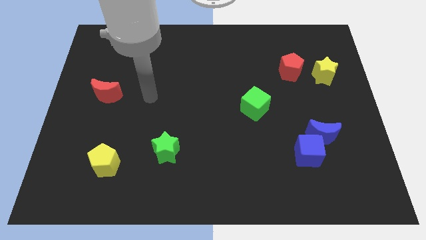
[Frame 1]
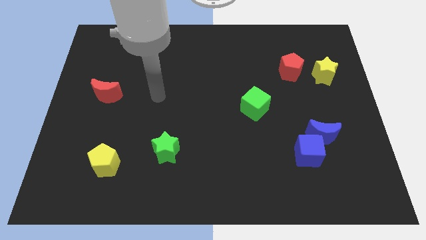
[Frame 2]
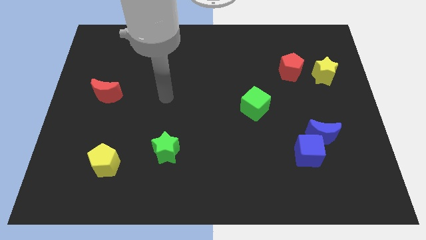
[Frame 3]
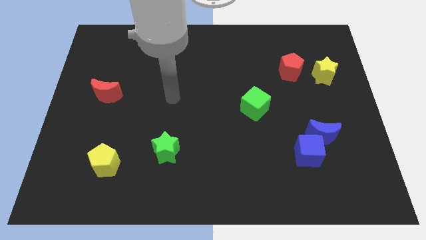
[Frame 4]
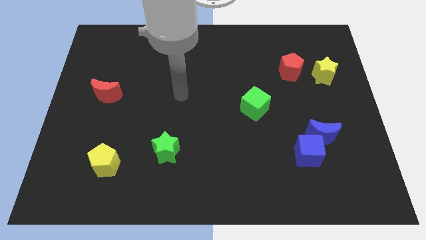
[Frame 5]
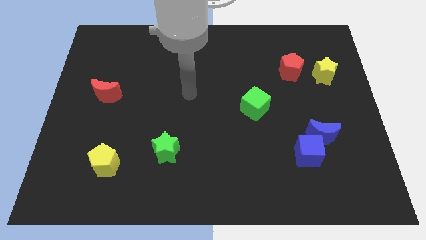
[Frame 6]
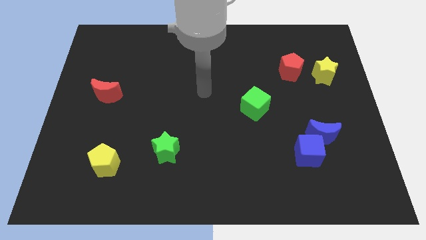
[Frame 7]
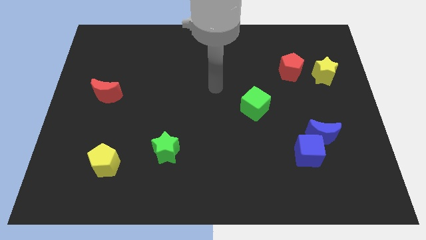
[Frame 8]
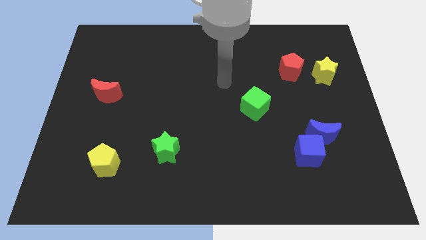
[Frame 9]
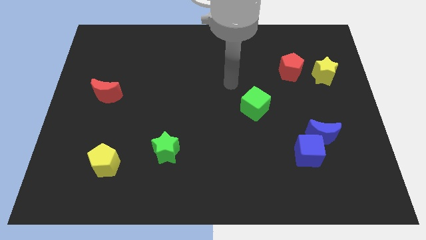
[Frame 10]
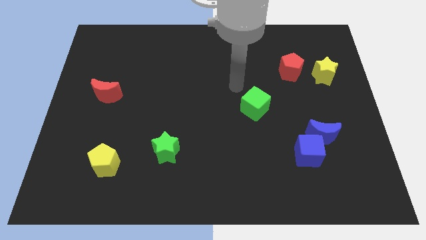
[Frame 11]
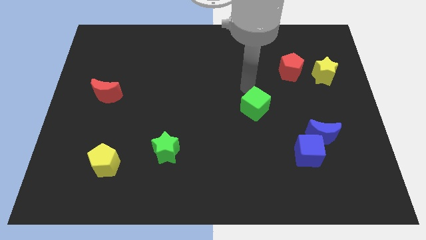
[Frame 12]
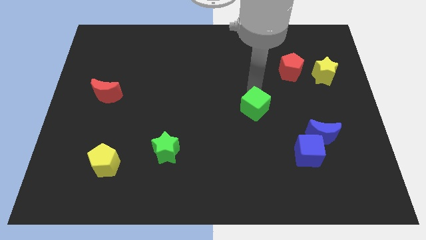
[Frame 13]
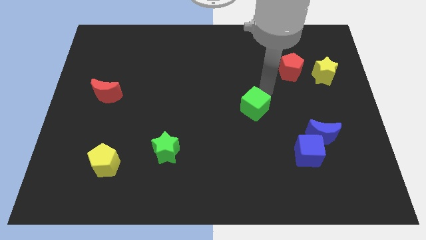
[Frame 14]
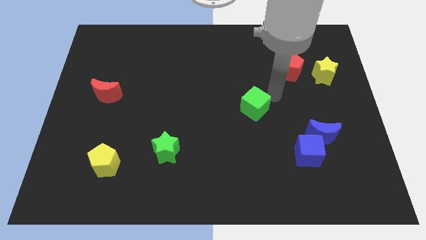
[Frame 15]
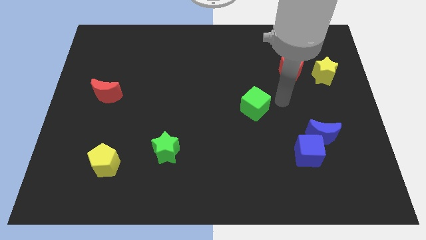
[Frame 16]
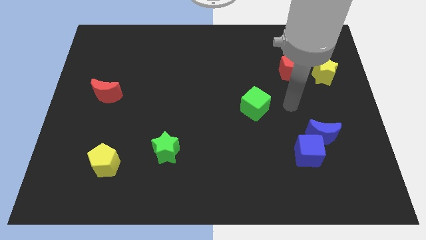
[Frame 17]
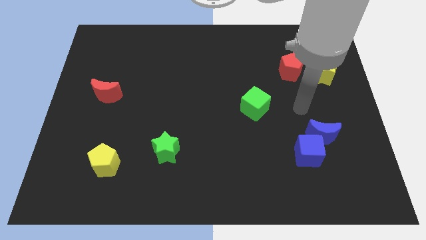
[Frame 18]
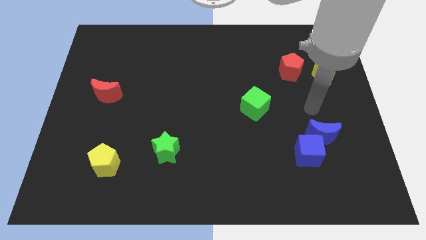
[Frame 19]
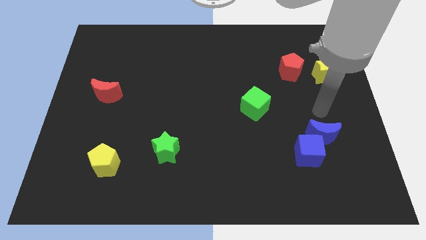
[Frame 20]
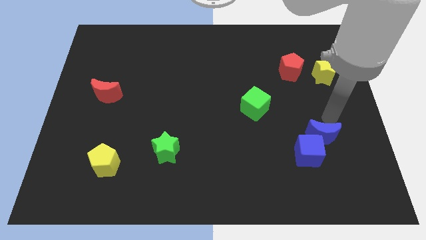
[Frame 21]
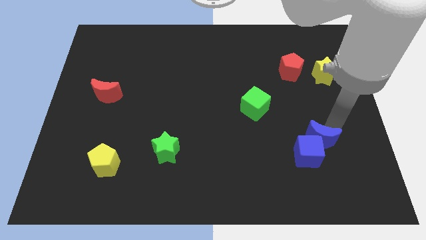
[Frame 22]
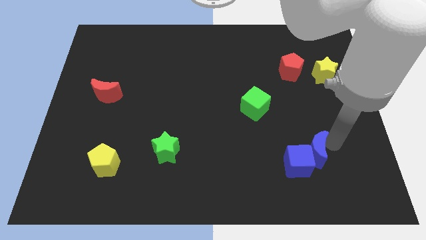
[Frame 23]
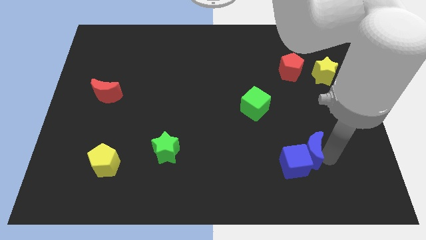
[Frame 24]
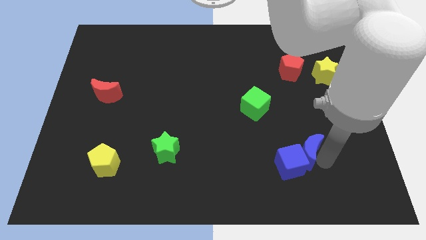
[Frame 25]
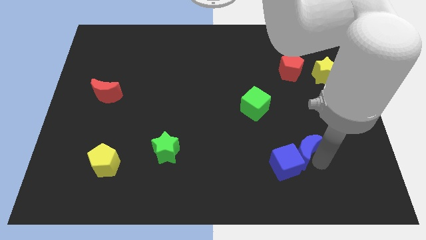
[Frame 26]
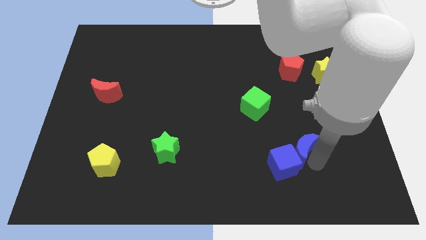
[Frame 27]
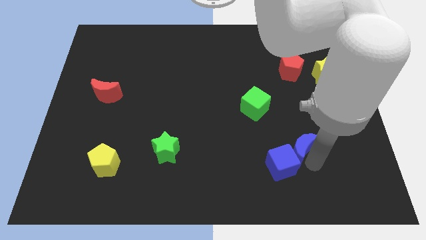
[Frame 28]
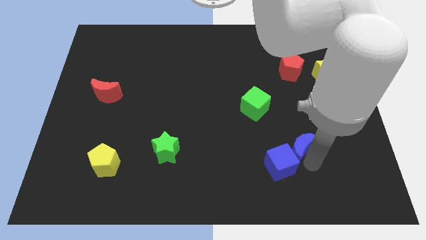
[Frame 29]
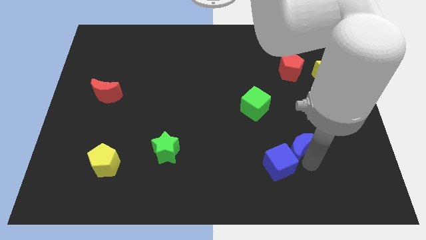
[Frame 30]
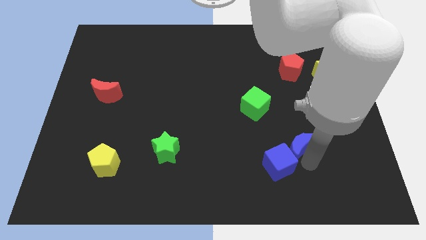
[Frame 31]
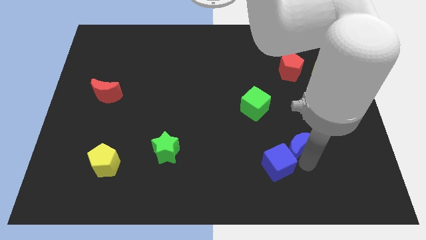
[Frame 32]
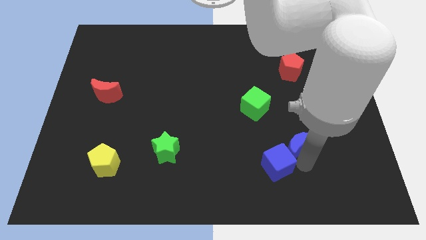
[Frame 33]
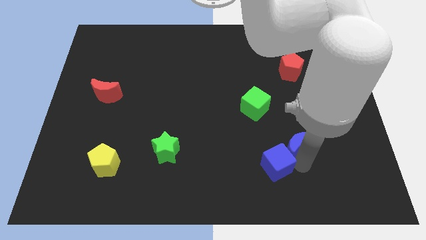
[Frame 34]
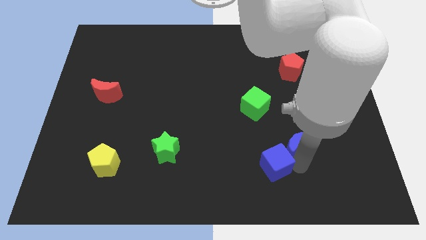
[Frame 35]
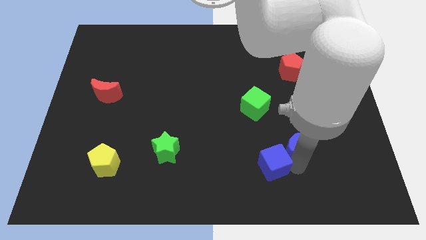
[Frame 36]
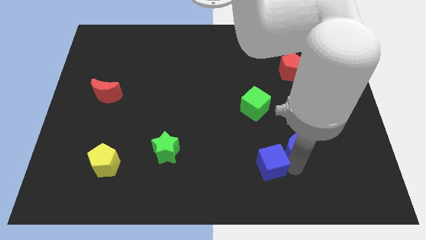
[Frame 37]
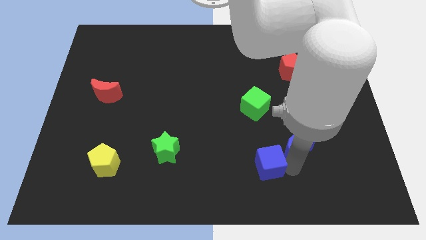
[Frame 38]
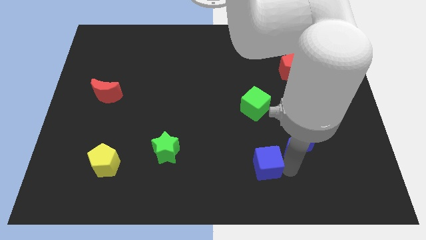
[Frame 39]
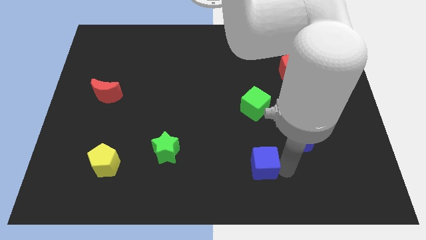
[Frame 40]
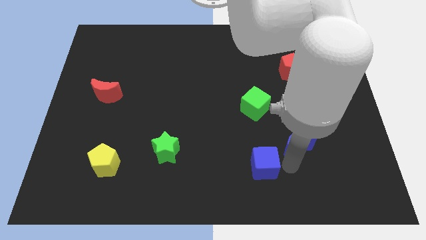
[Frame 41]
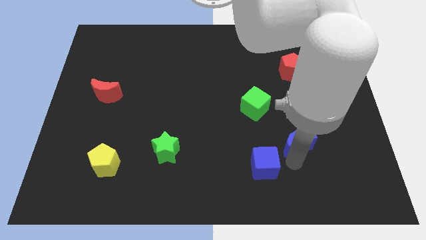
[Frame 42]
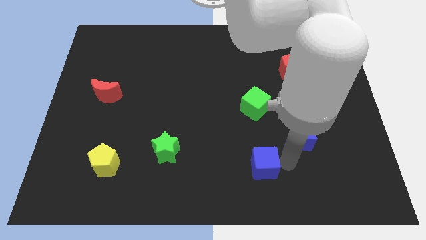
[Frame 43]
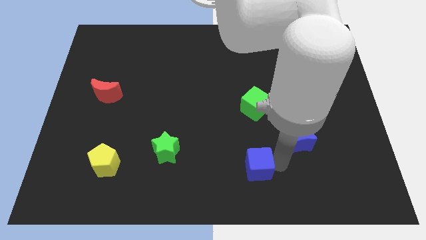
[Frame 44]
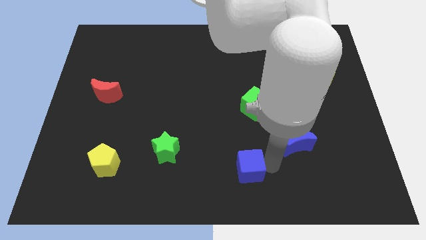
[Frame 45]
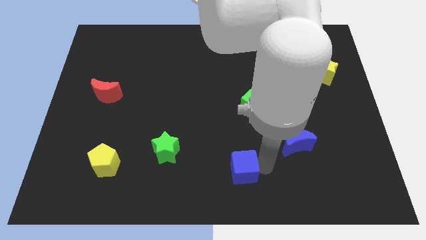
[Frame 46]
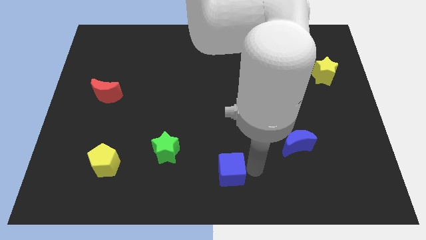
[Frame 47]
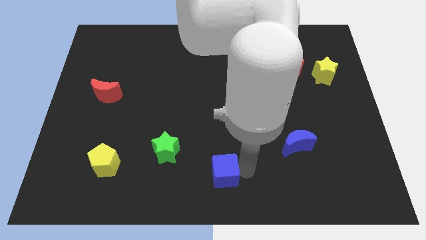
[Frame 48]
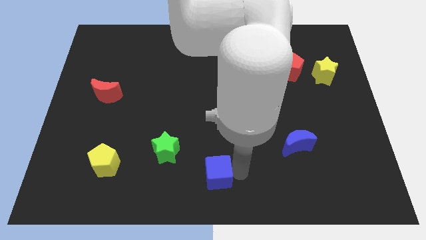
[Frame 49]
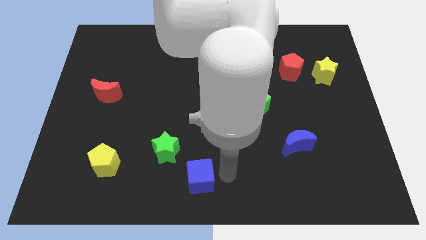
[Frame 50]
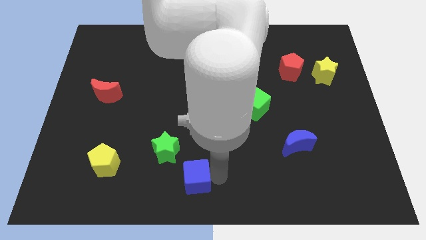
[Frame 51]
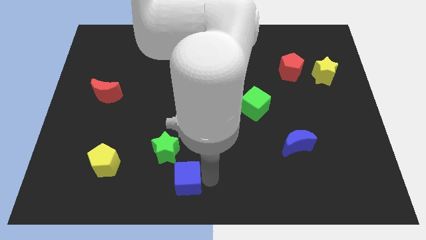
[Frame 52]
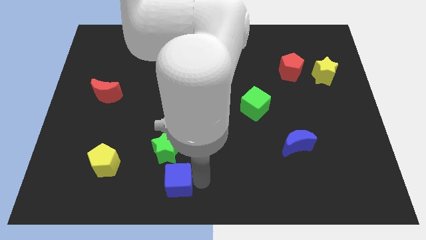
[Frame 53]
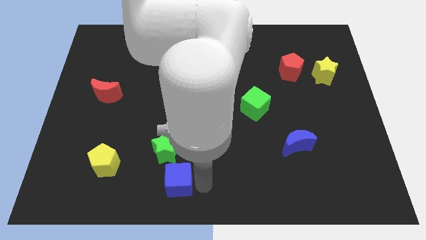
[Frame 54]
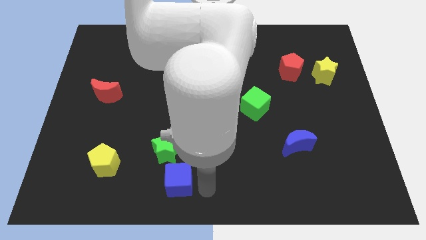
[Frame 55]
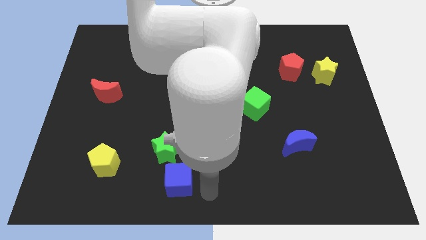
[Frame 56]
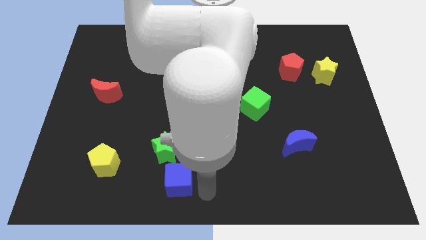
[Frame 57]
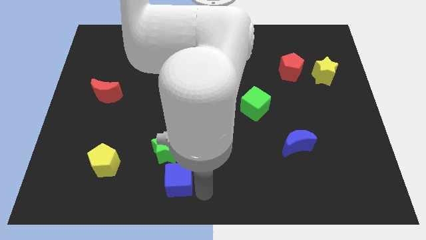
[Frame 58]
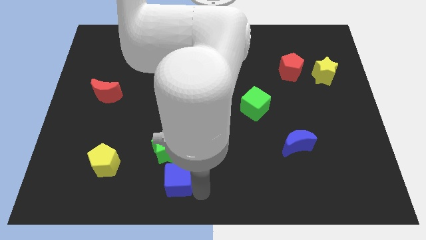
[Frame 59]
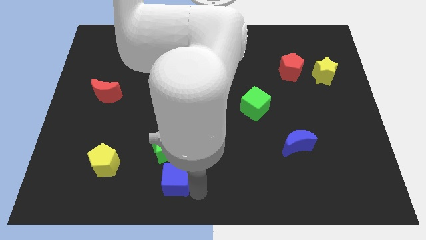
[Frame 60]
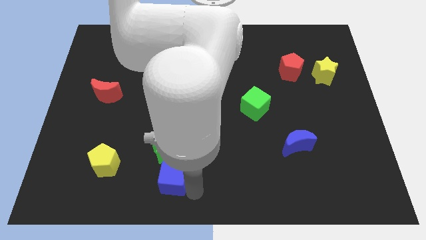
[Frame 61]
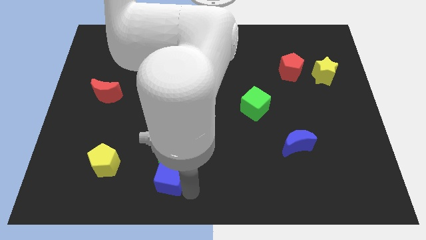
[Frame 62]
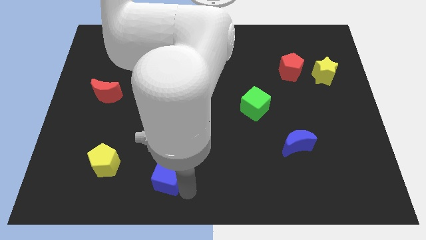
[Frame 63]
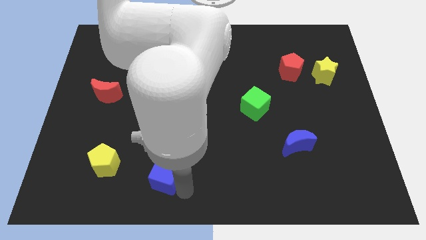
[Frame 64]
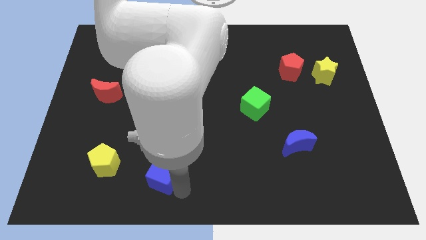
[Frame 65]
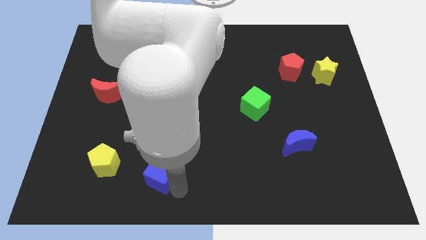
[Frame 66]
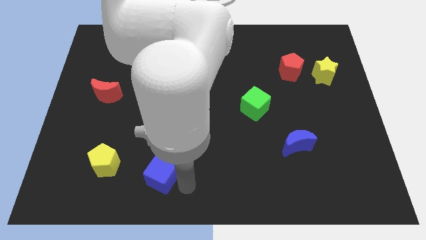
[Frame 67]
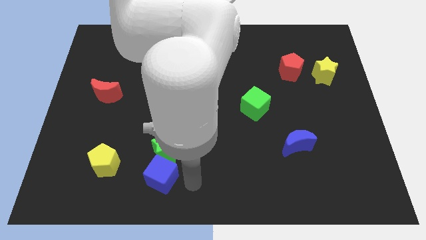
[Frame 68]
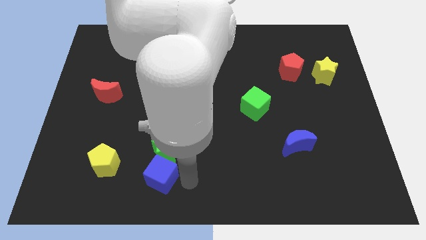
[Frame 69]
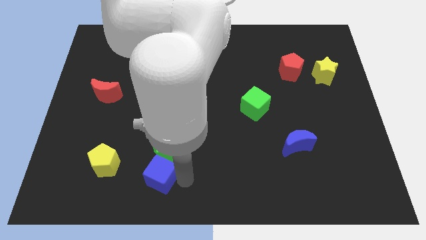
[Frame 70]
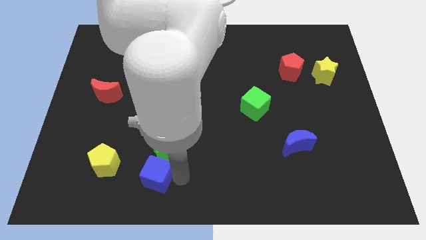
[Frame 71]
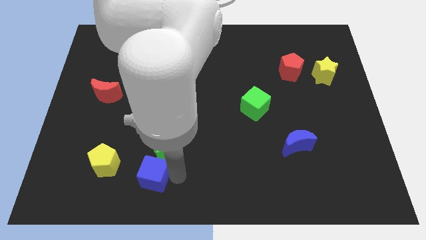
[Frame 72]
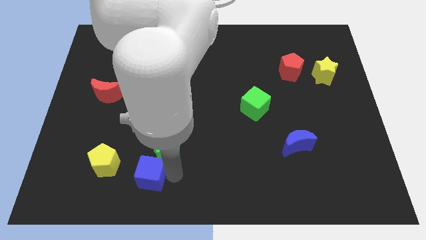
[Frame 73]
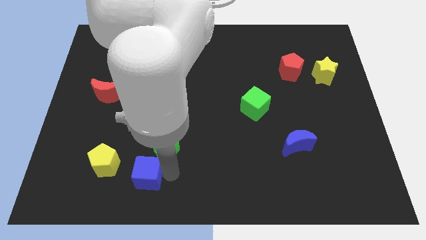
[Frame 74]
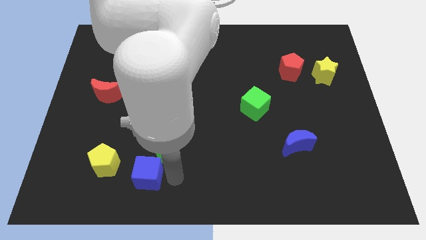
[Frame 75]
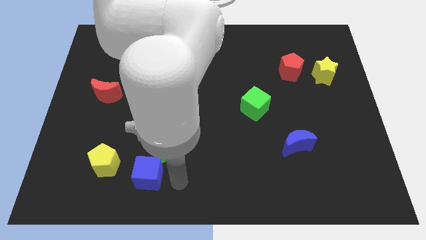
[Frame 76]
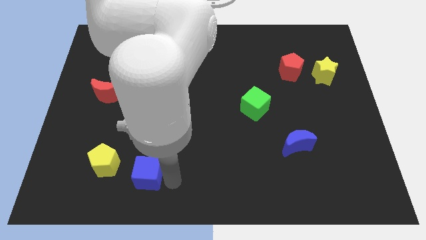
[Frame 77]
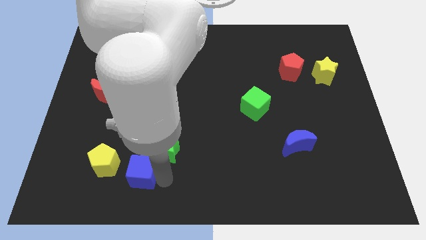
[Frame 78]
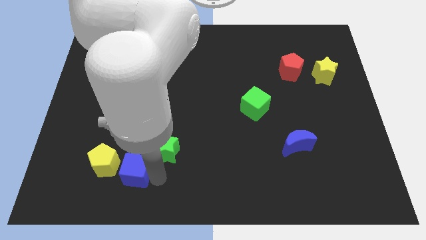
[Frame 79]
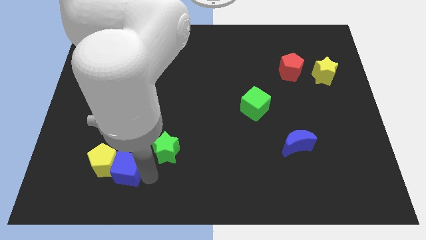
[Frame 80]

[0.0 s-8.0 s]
slide the blue cube towards the yellow pentagon

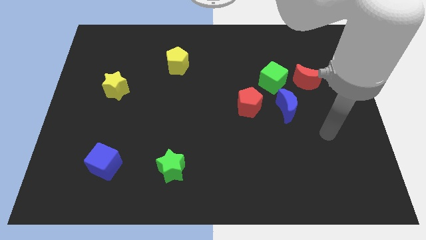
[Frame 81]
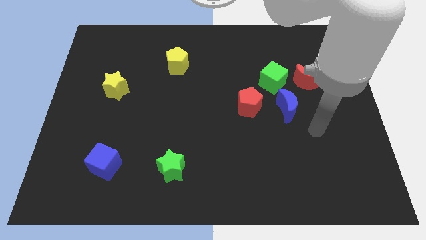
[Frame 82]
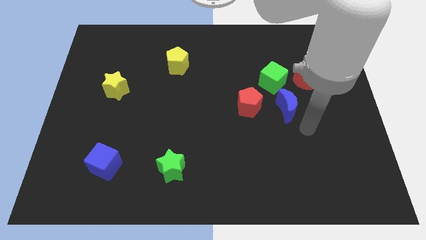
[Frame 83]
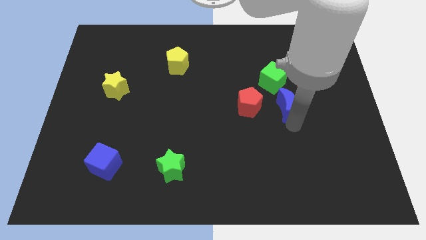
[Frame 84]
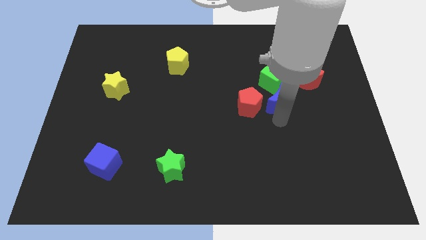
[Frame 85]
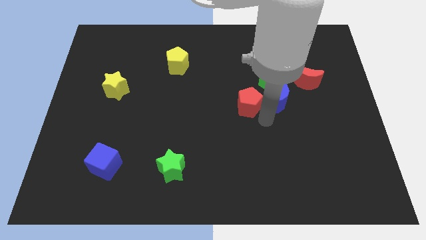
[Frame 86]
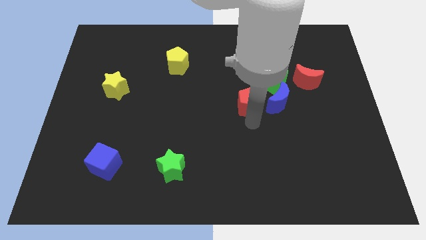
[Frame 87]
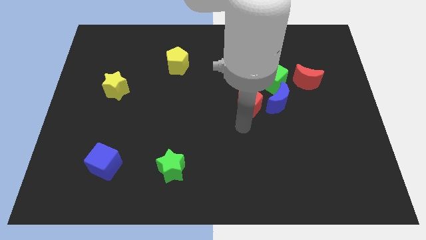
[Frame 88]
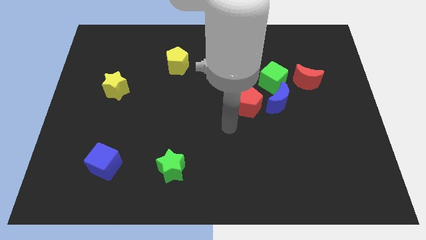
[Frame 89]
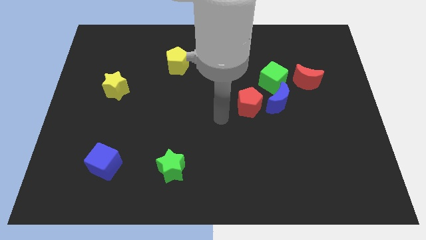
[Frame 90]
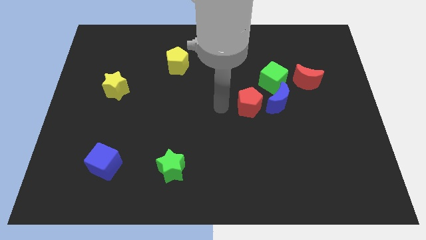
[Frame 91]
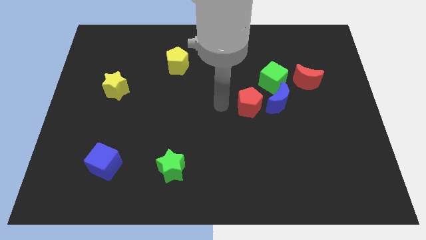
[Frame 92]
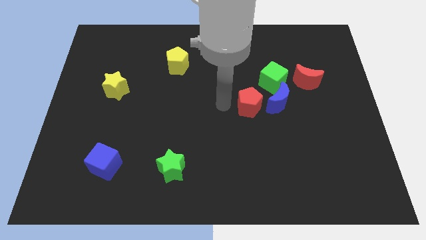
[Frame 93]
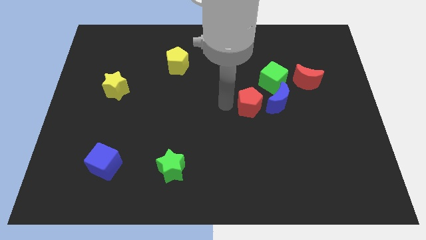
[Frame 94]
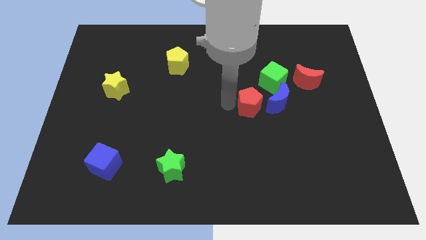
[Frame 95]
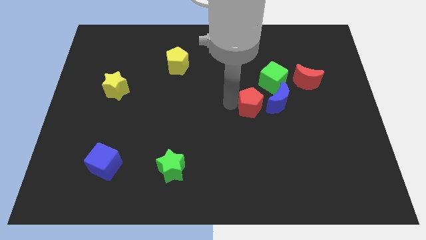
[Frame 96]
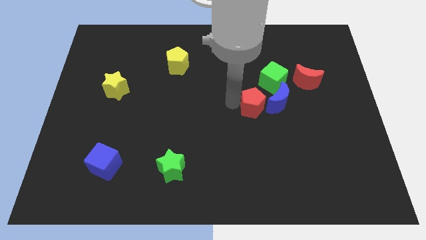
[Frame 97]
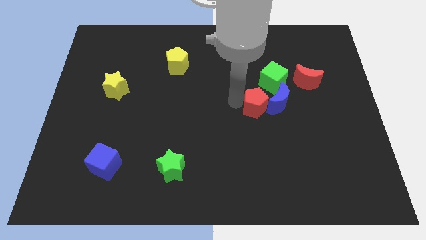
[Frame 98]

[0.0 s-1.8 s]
move the red pentagon next to the blue moon
